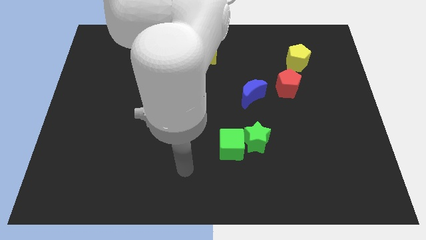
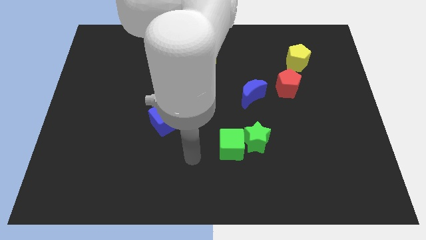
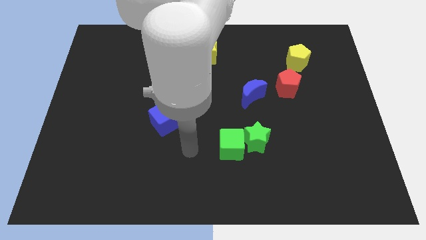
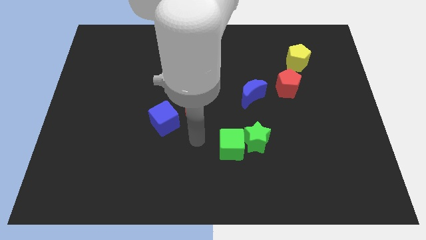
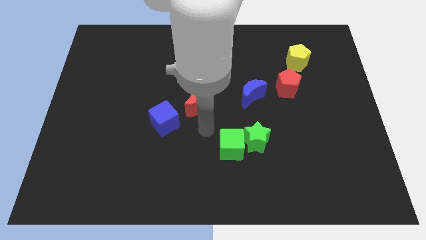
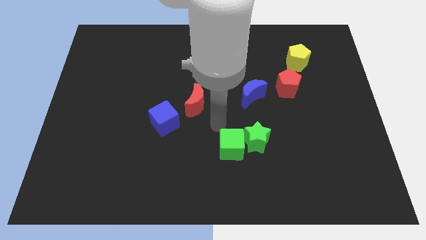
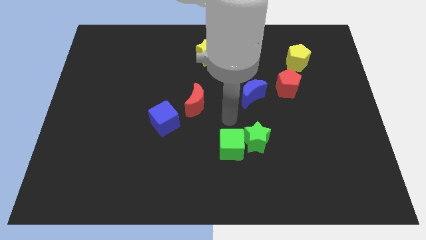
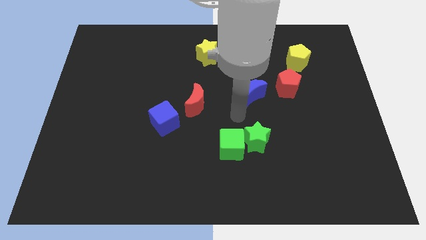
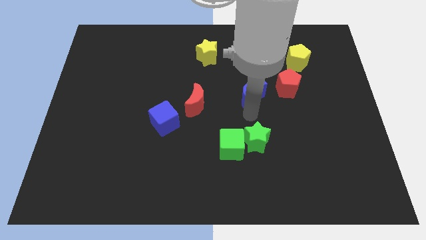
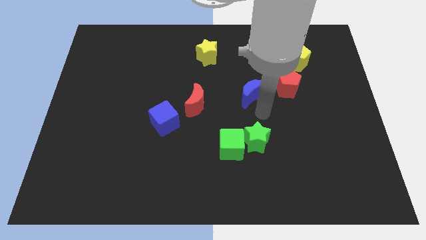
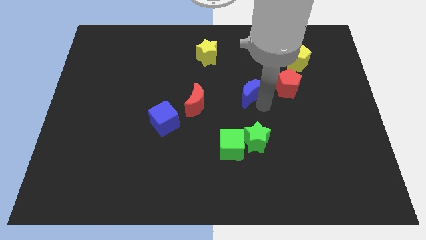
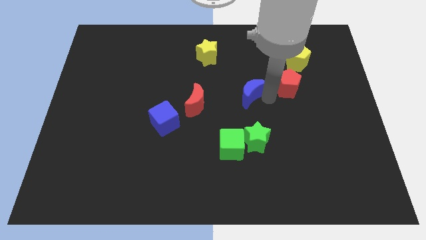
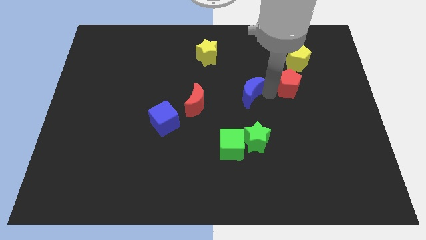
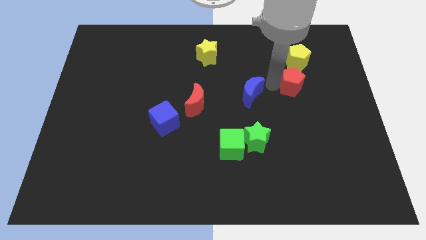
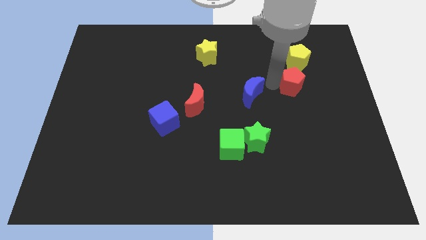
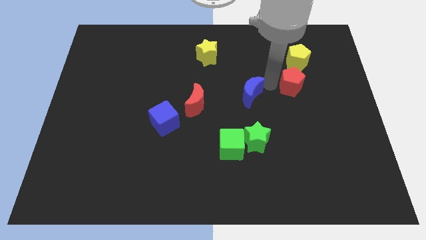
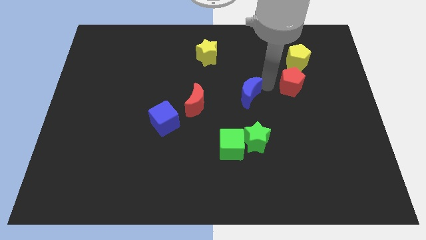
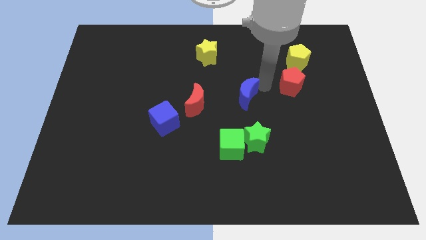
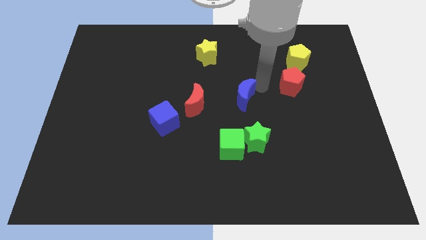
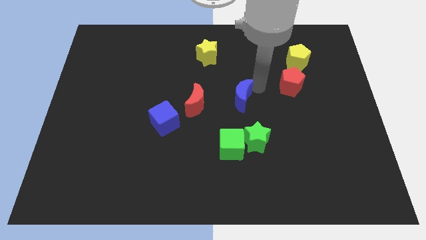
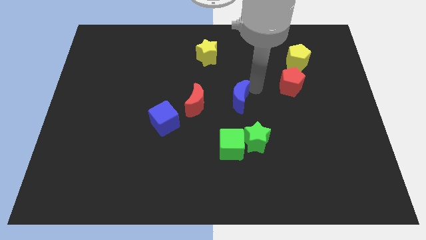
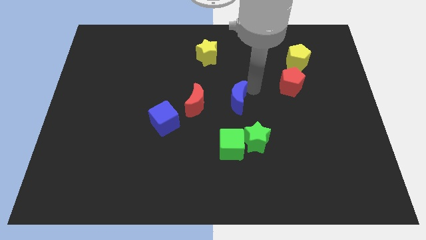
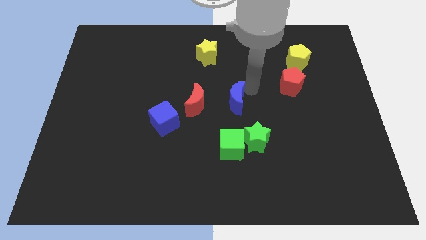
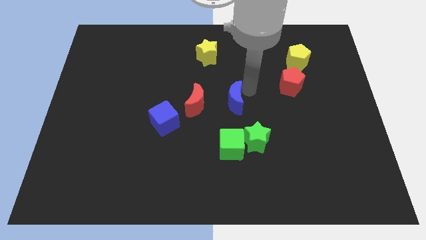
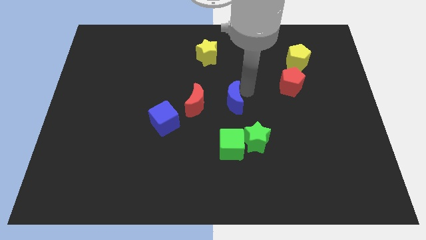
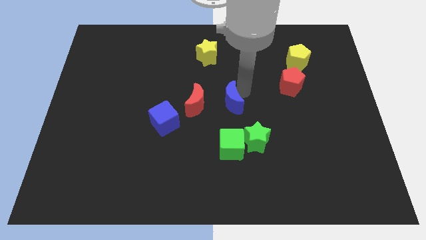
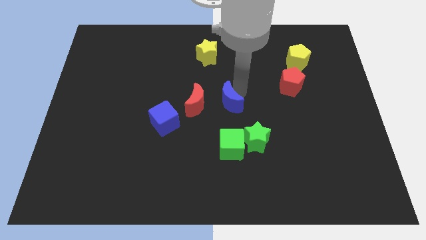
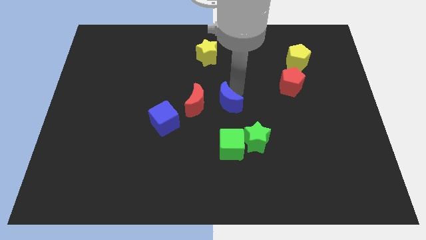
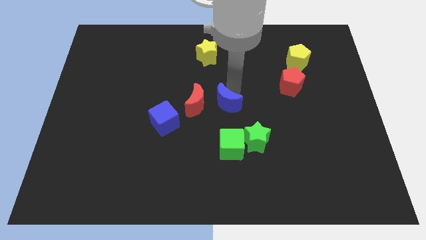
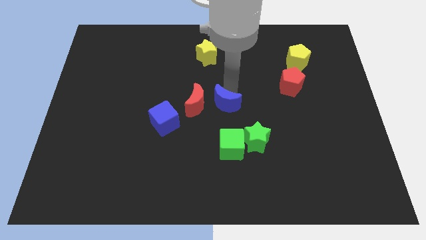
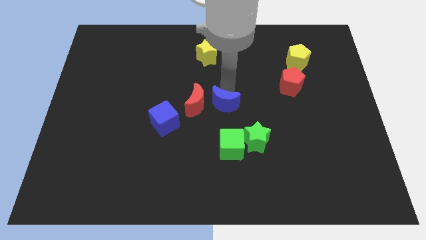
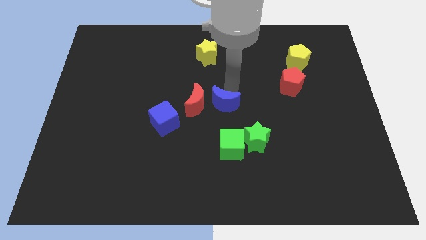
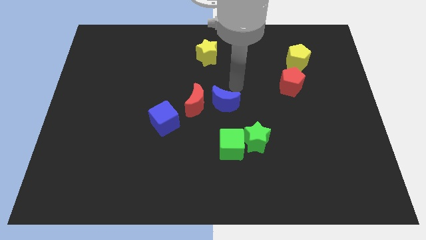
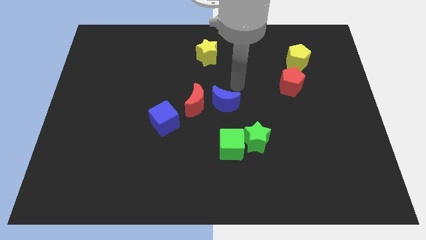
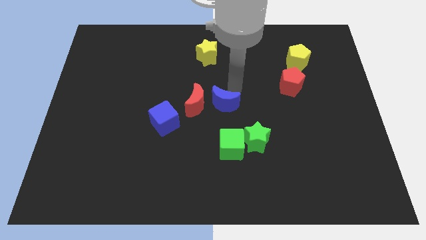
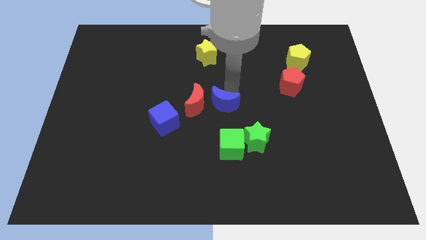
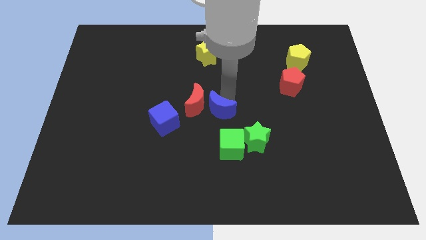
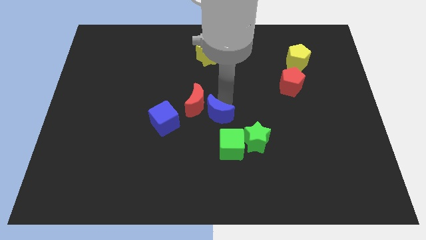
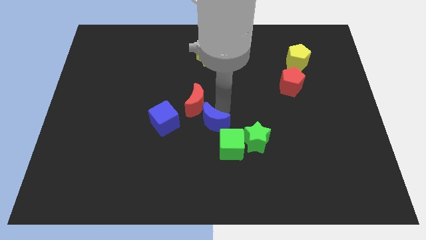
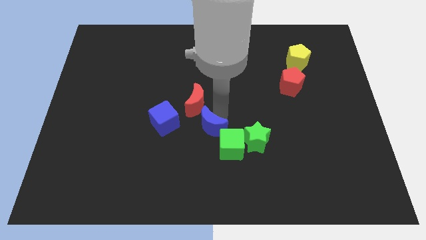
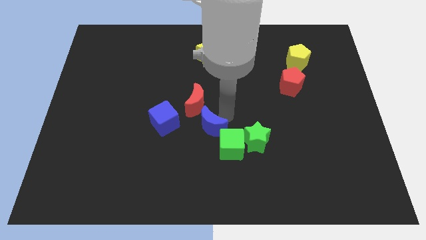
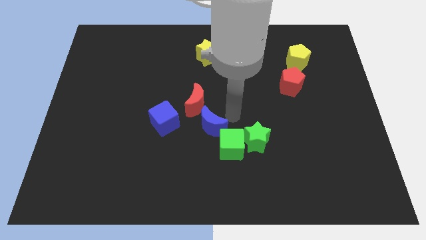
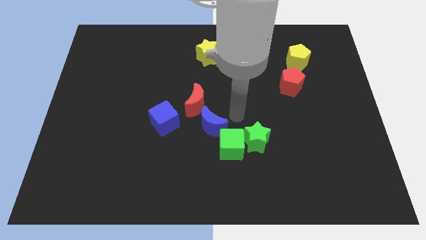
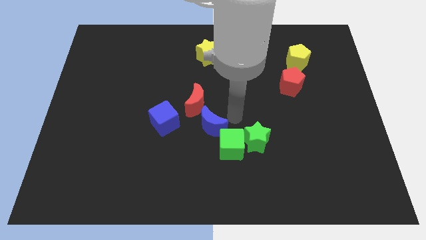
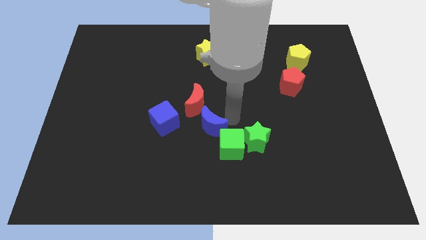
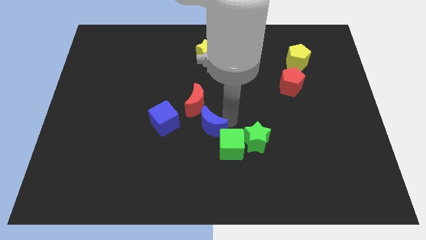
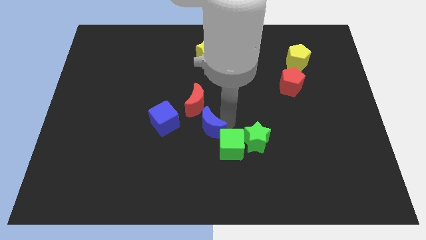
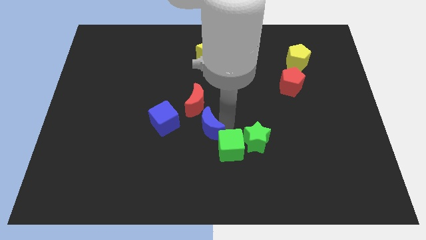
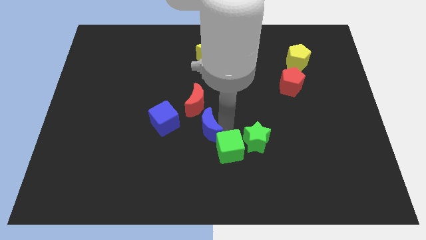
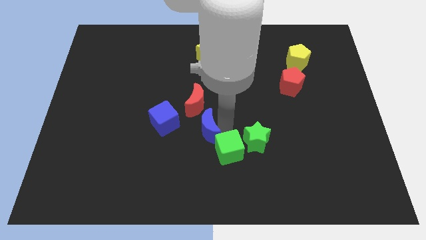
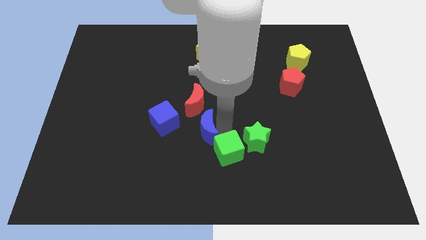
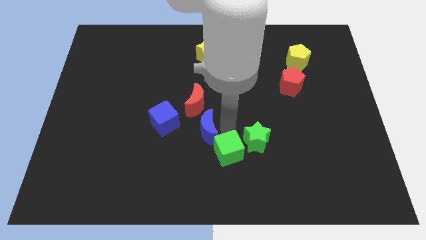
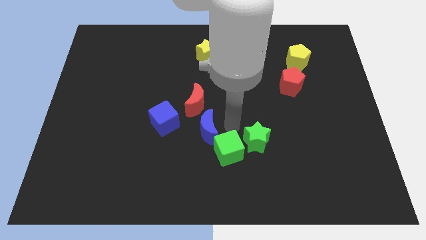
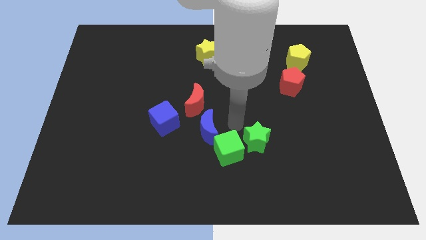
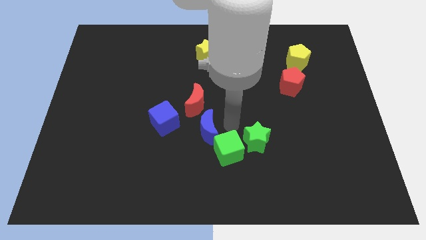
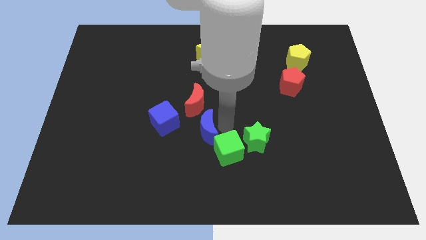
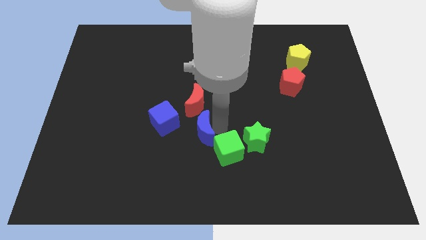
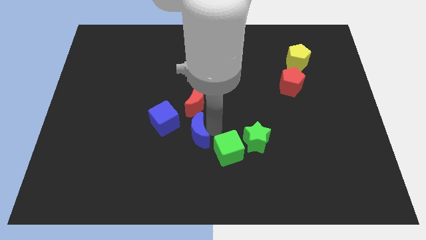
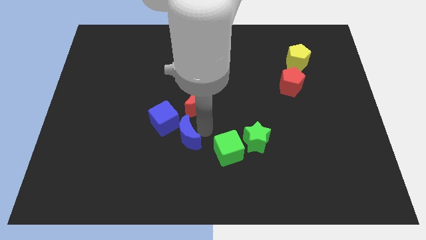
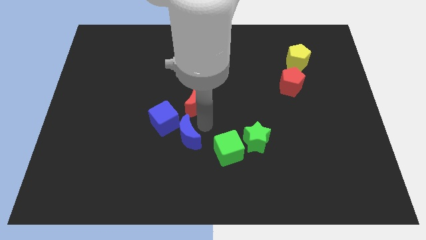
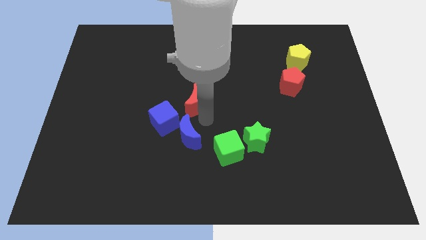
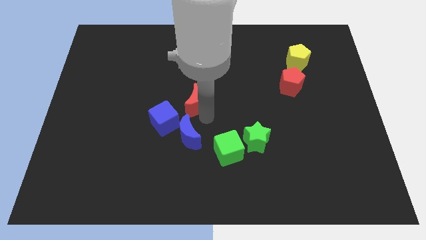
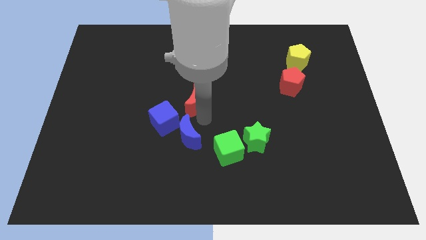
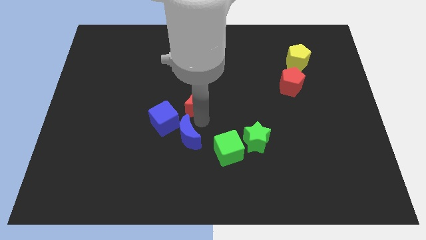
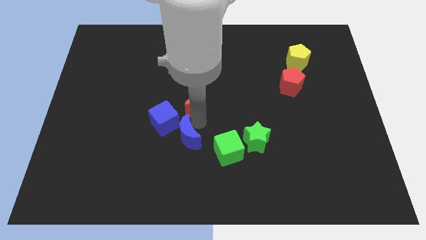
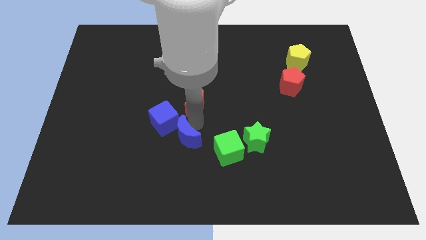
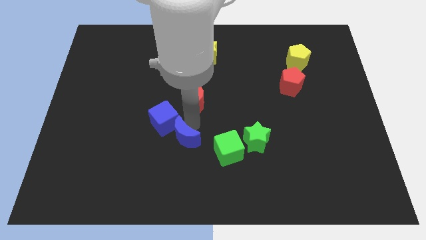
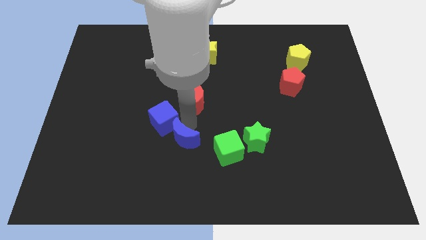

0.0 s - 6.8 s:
push the blue moon downwards and then left

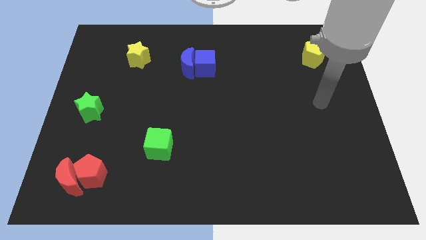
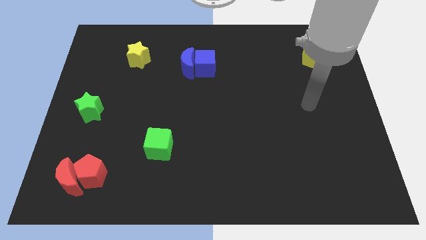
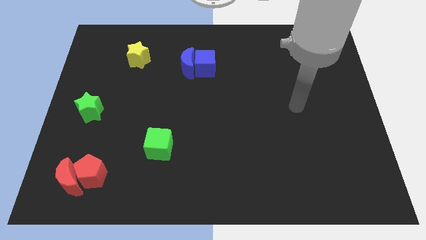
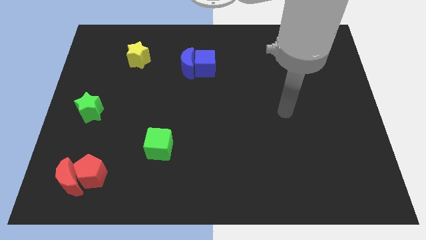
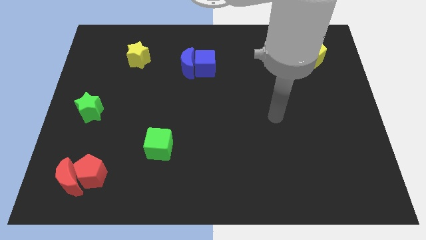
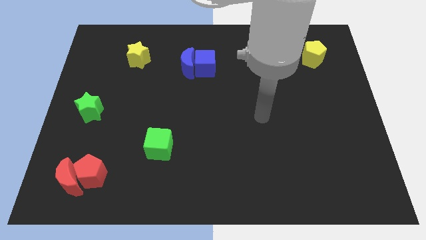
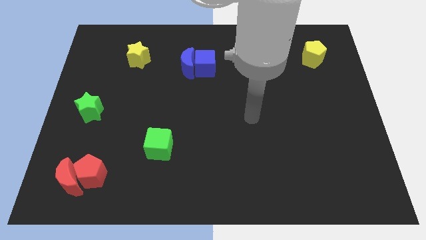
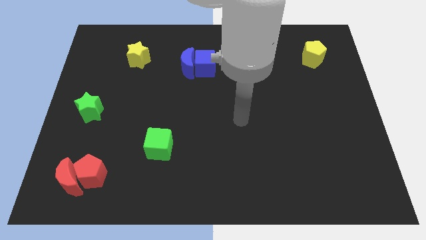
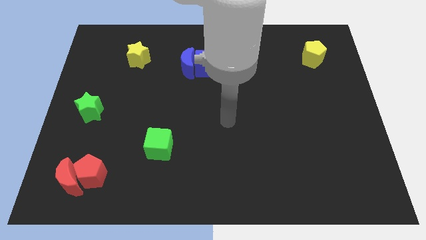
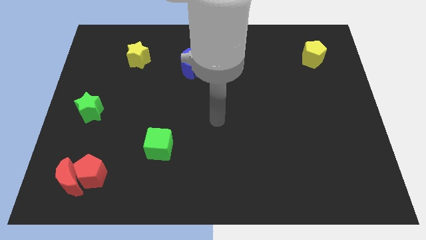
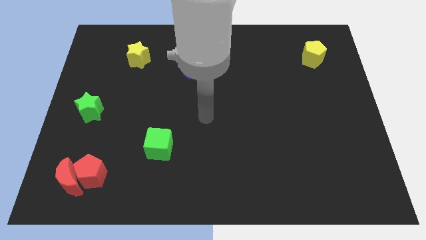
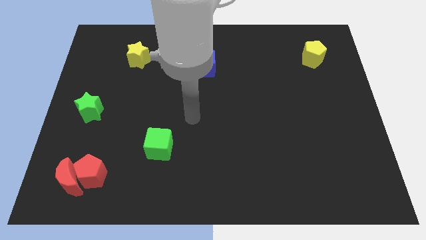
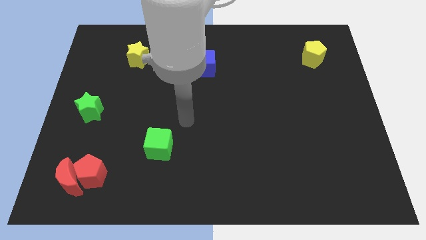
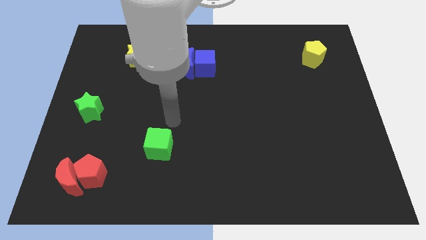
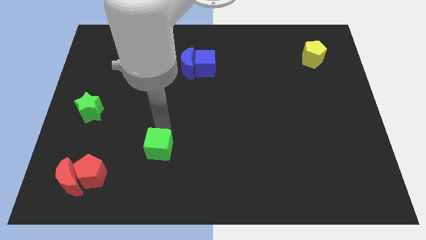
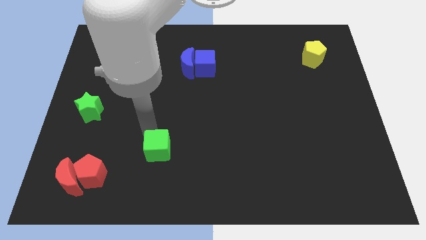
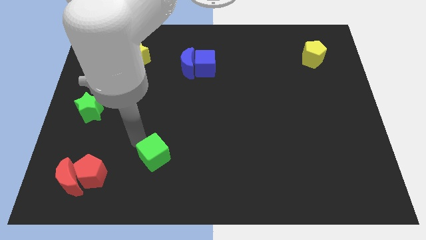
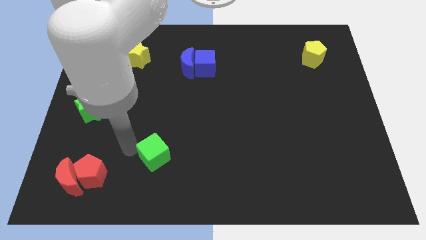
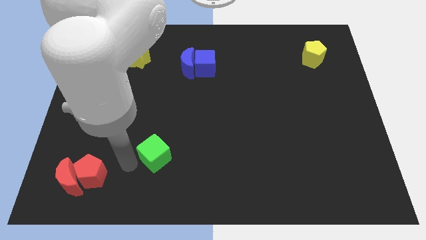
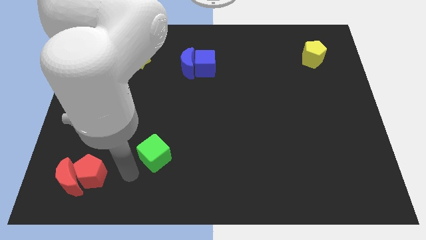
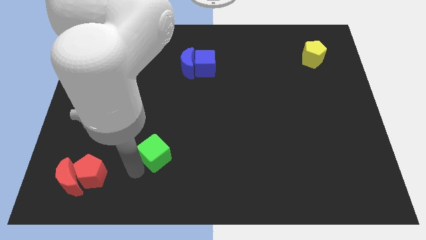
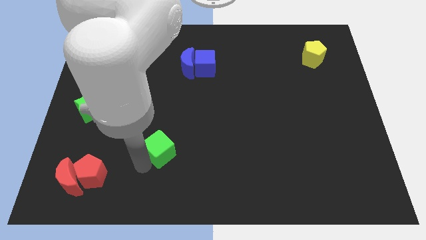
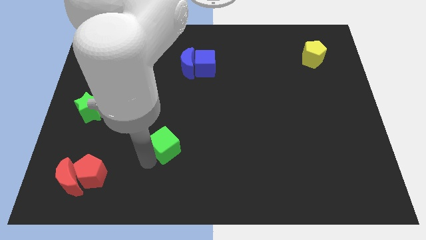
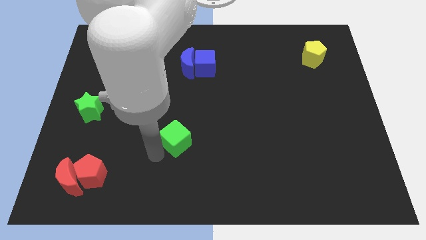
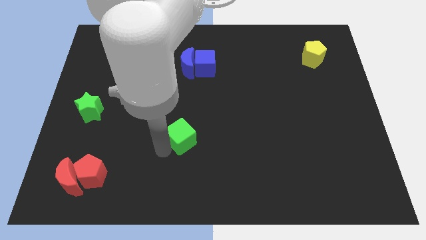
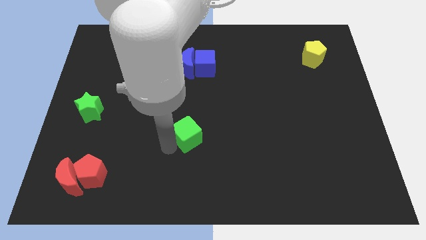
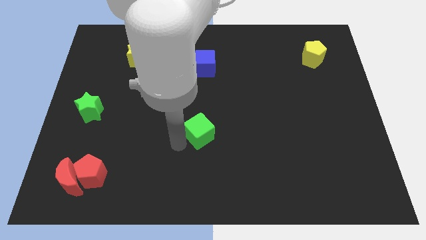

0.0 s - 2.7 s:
slightly move the green cube upwards and right diagonally
